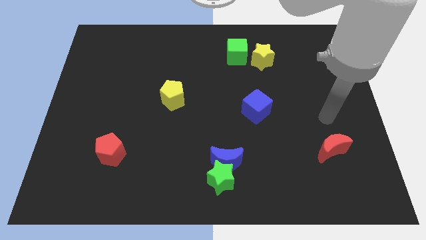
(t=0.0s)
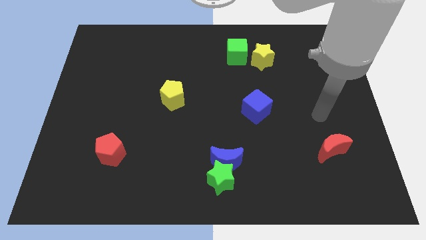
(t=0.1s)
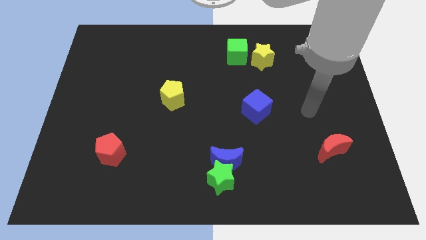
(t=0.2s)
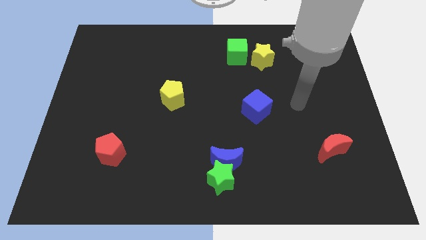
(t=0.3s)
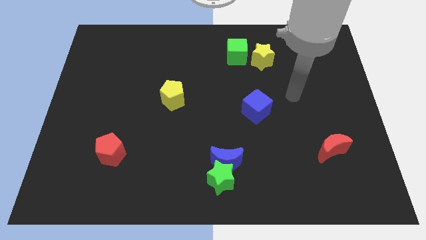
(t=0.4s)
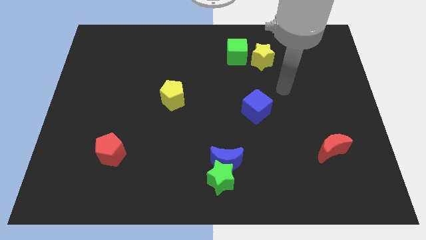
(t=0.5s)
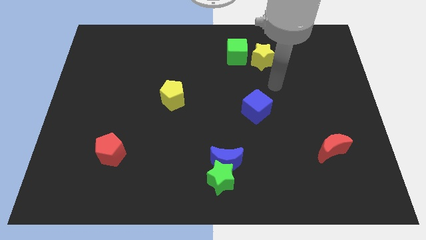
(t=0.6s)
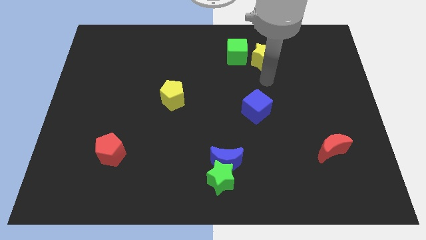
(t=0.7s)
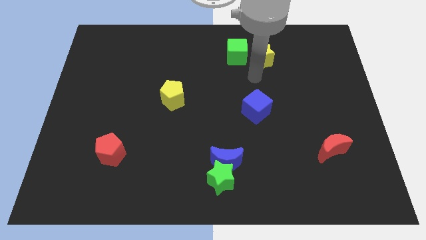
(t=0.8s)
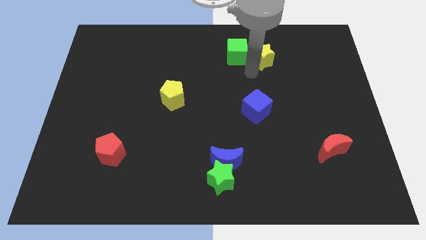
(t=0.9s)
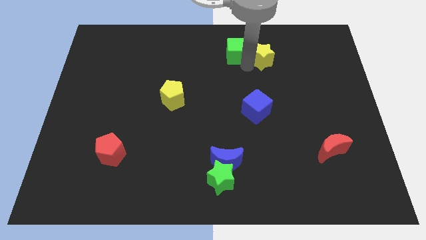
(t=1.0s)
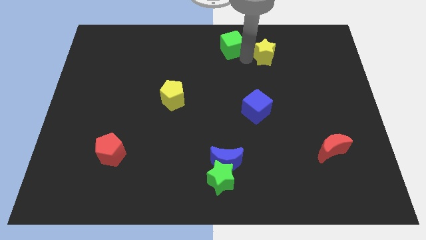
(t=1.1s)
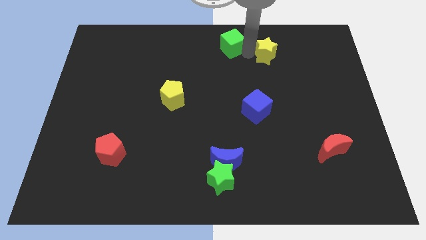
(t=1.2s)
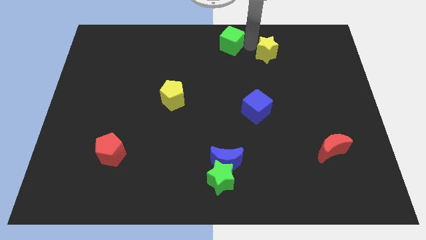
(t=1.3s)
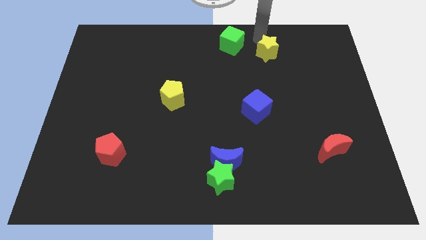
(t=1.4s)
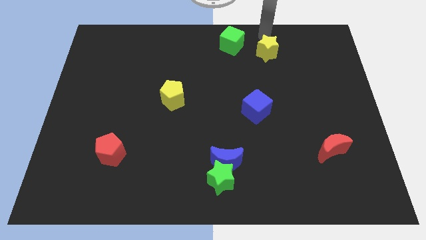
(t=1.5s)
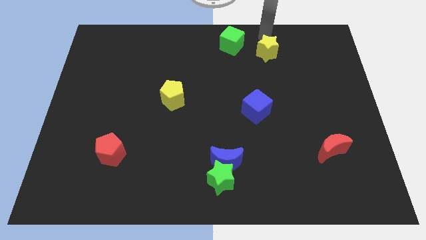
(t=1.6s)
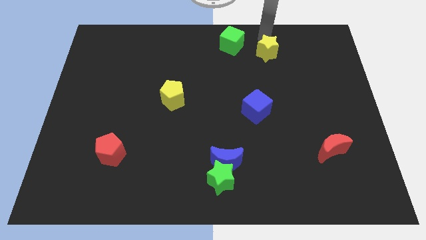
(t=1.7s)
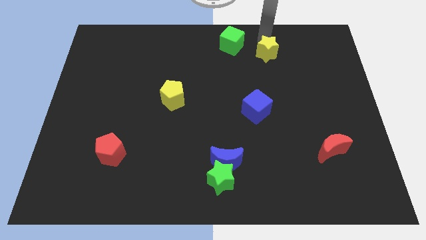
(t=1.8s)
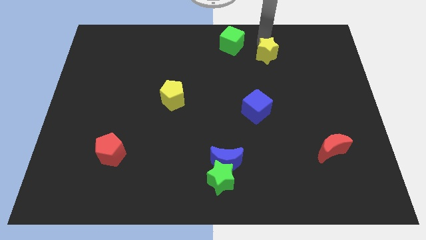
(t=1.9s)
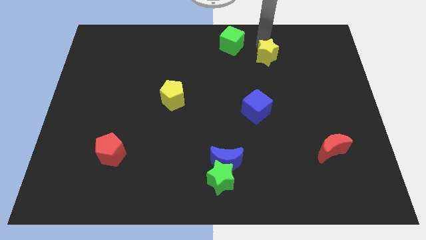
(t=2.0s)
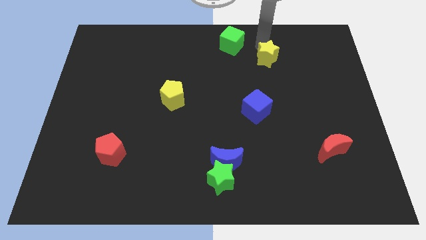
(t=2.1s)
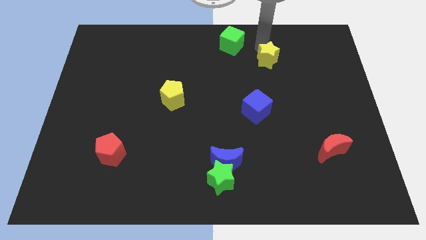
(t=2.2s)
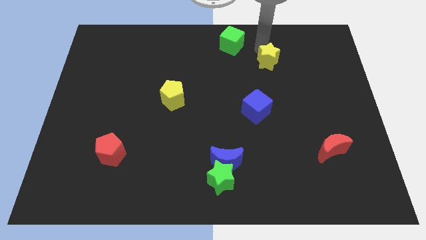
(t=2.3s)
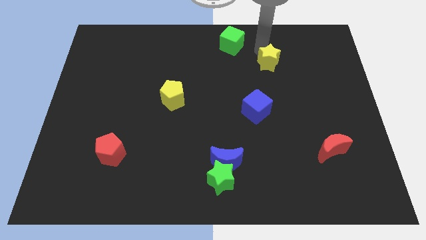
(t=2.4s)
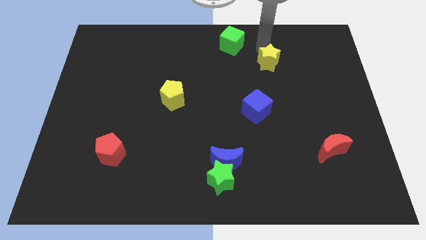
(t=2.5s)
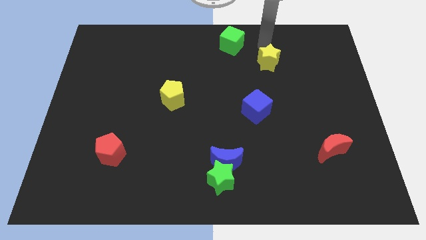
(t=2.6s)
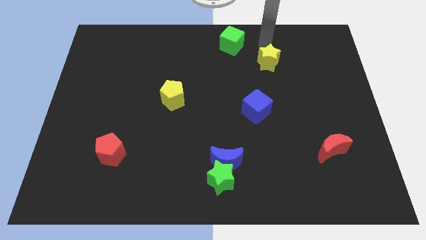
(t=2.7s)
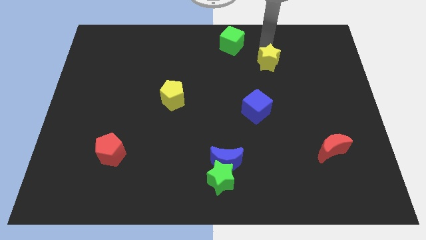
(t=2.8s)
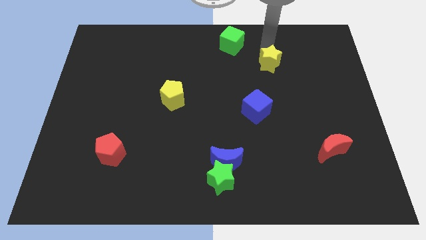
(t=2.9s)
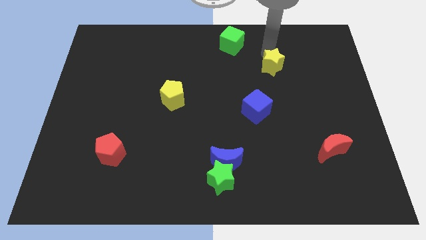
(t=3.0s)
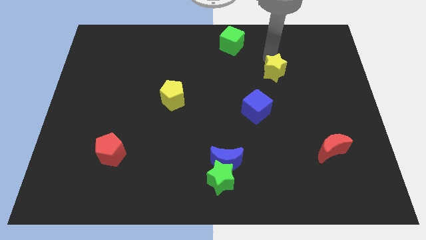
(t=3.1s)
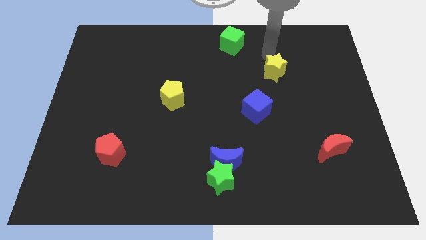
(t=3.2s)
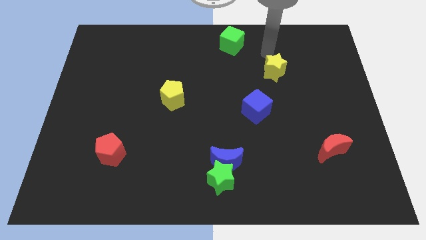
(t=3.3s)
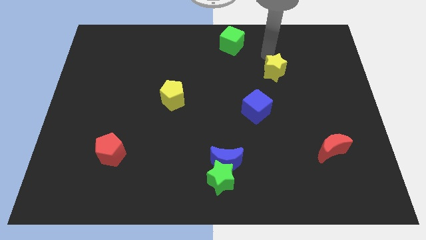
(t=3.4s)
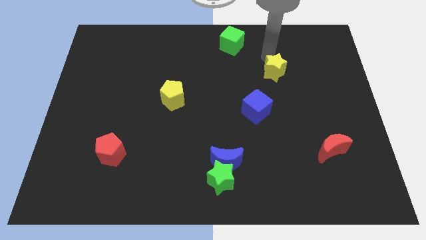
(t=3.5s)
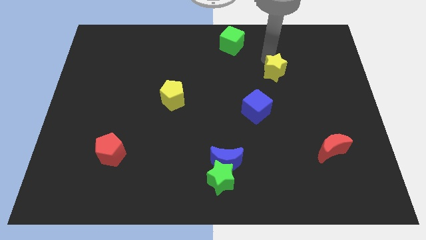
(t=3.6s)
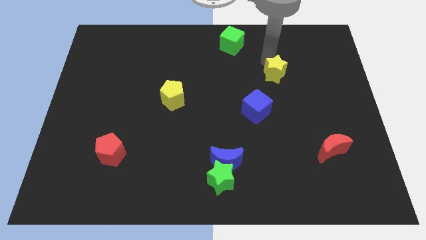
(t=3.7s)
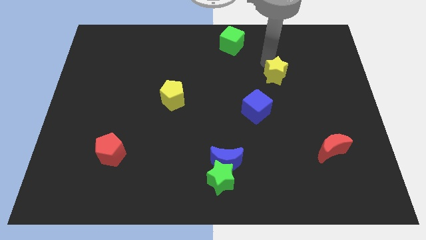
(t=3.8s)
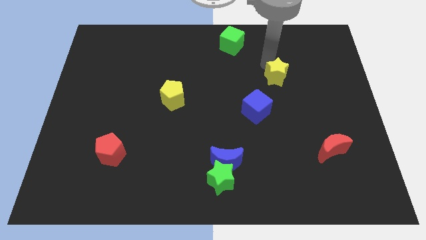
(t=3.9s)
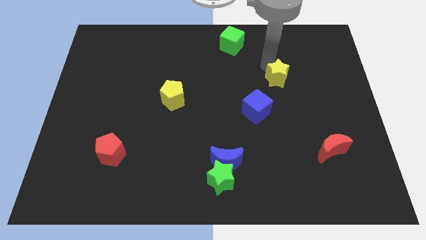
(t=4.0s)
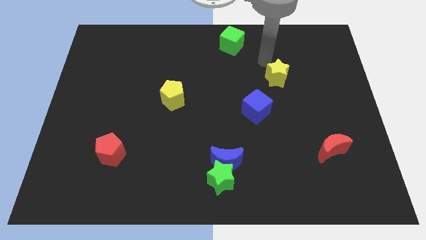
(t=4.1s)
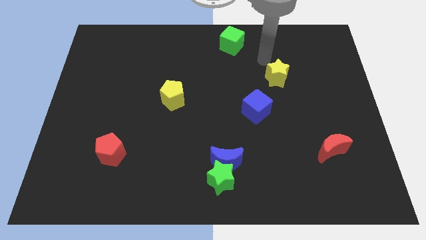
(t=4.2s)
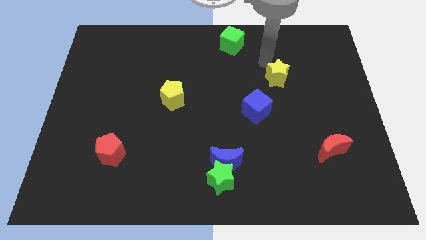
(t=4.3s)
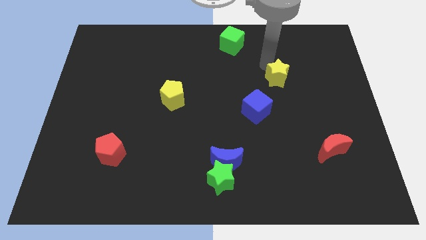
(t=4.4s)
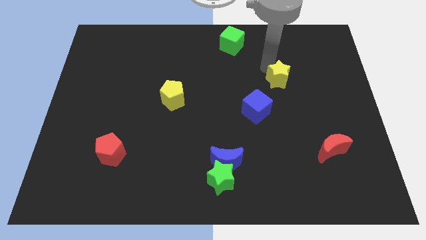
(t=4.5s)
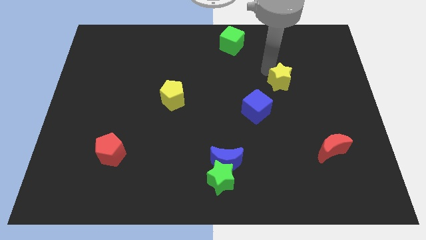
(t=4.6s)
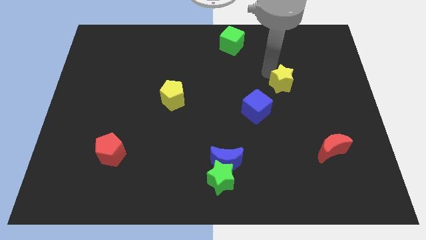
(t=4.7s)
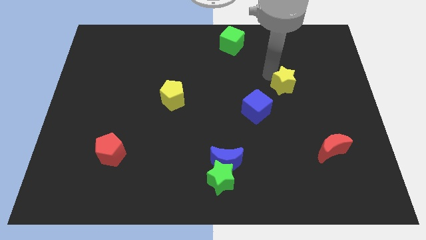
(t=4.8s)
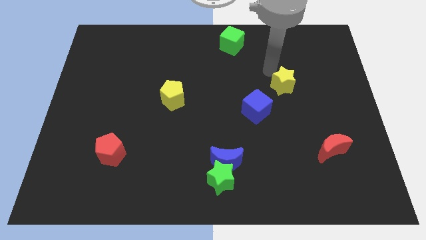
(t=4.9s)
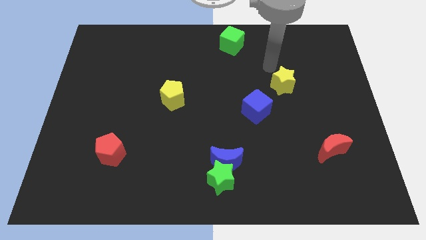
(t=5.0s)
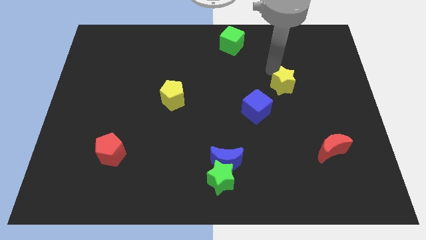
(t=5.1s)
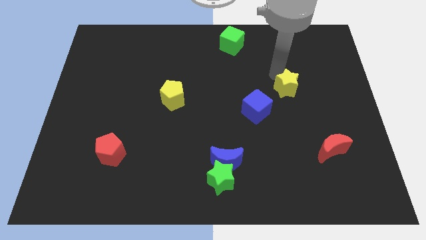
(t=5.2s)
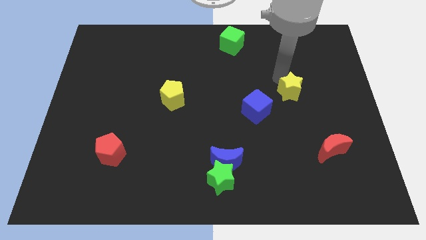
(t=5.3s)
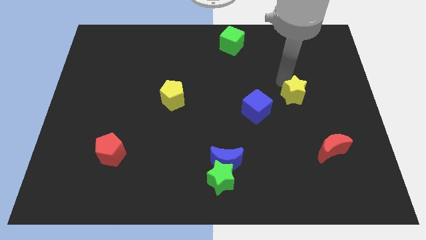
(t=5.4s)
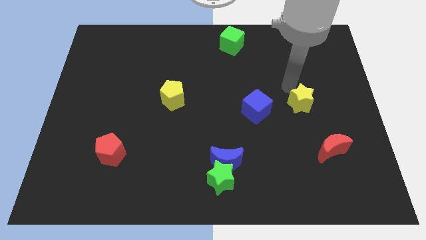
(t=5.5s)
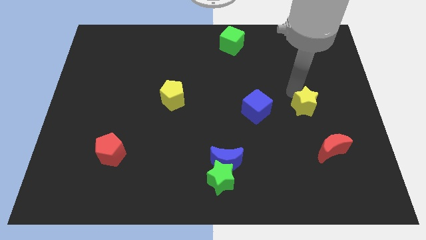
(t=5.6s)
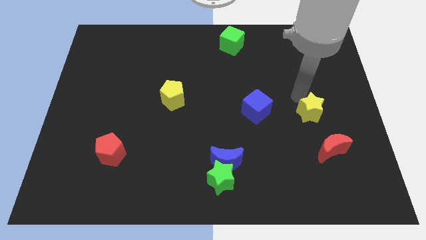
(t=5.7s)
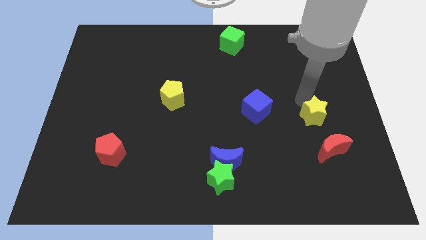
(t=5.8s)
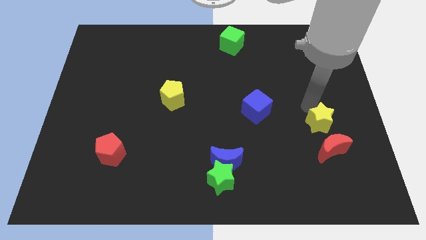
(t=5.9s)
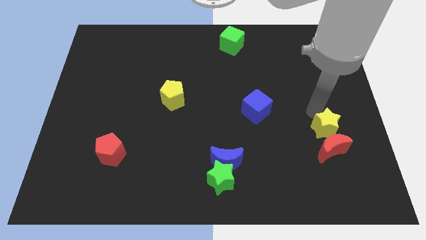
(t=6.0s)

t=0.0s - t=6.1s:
put the yellow star towards the red moon
